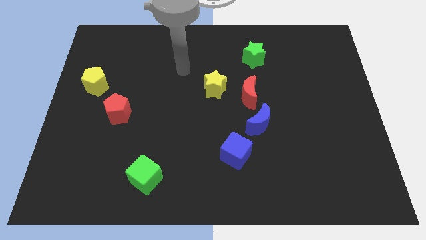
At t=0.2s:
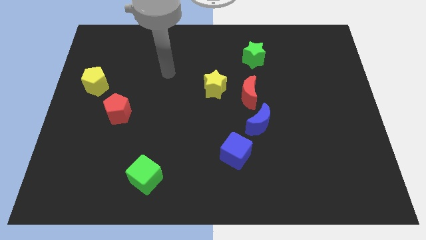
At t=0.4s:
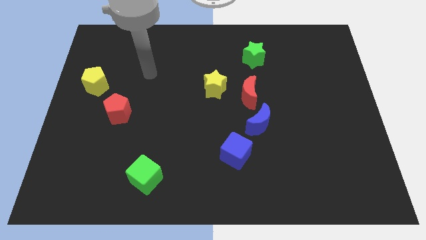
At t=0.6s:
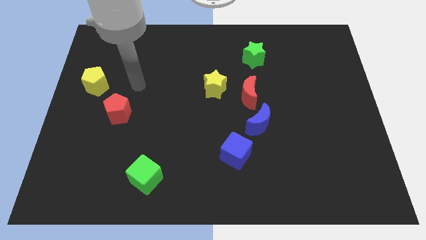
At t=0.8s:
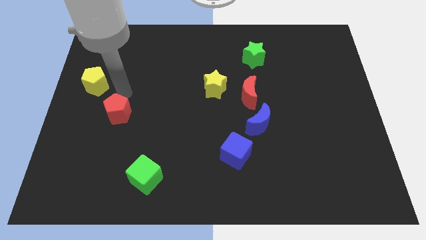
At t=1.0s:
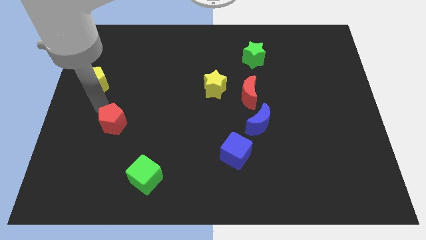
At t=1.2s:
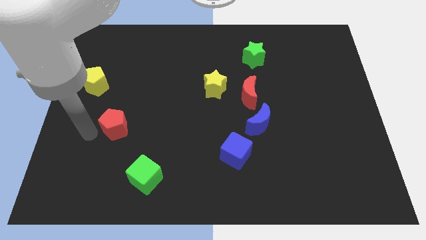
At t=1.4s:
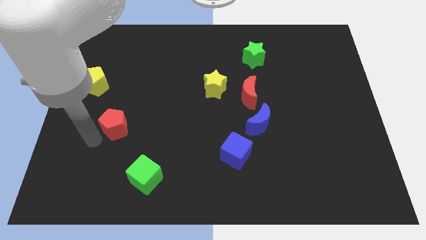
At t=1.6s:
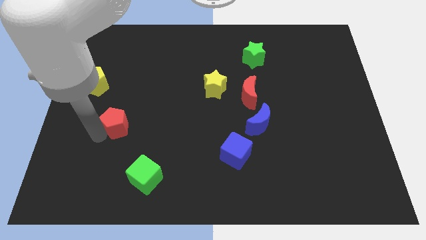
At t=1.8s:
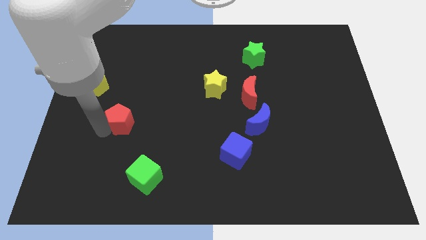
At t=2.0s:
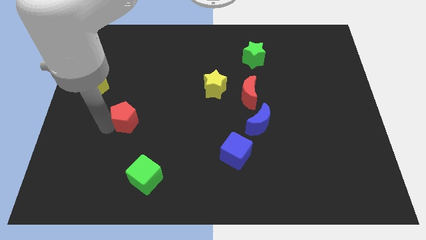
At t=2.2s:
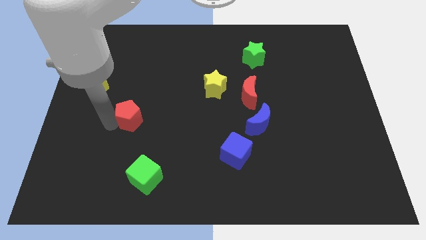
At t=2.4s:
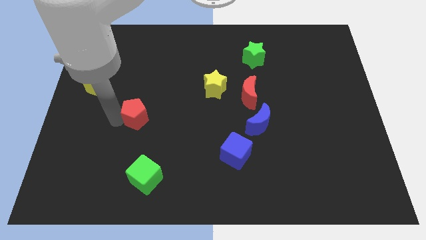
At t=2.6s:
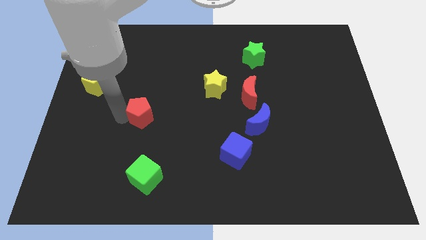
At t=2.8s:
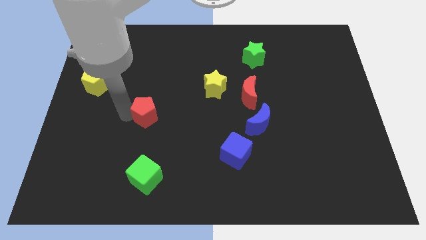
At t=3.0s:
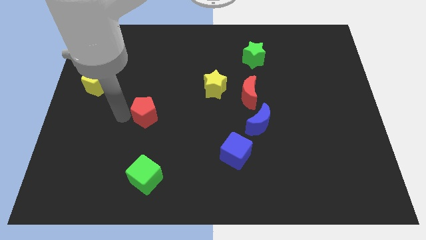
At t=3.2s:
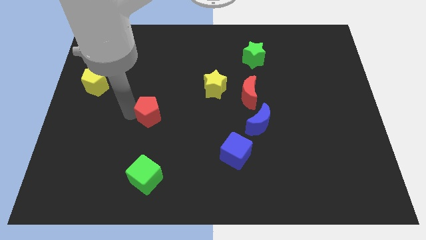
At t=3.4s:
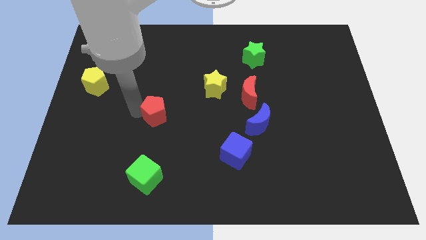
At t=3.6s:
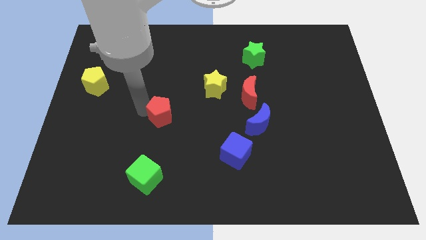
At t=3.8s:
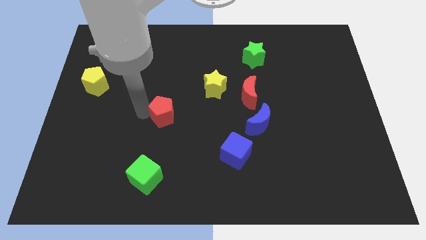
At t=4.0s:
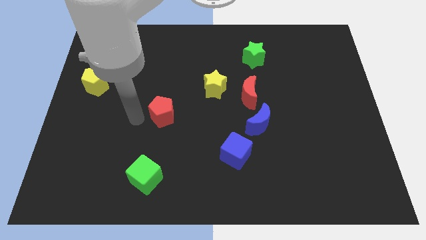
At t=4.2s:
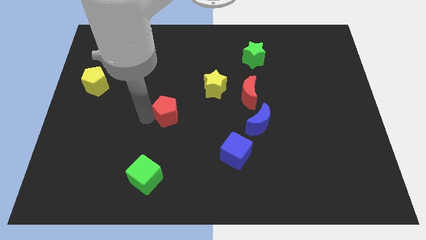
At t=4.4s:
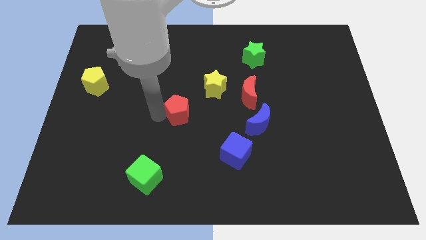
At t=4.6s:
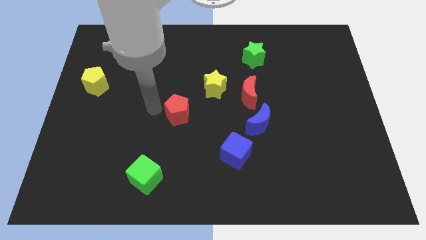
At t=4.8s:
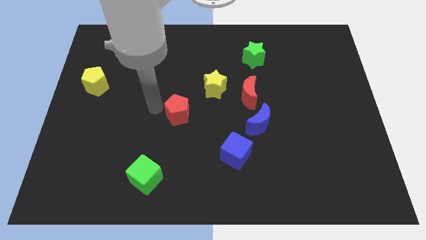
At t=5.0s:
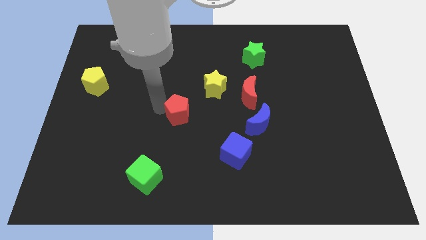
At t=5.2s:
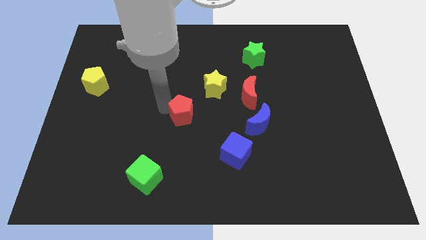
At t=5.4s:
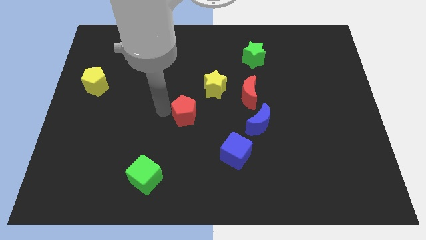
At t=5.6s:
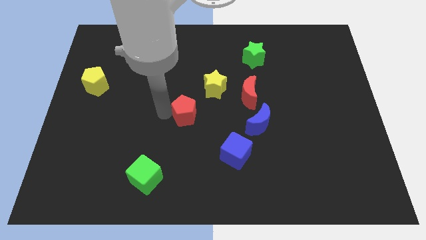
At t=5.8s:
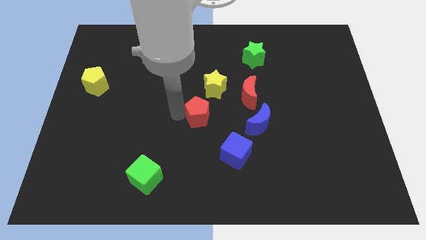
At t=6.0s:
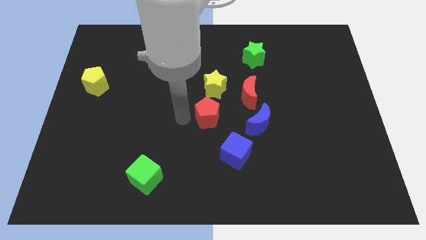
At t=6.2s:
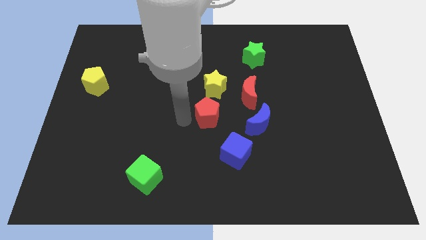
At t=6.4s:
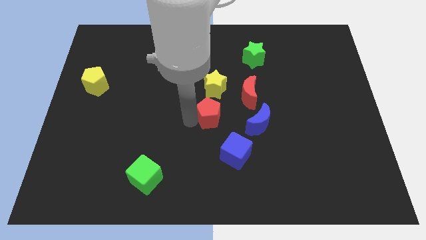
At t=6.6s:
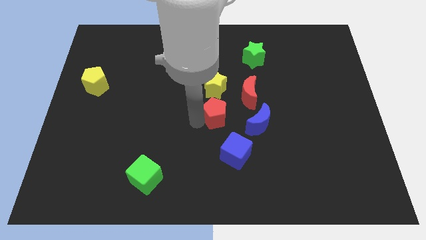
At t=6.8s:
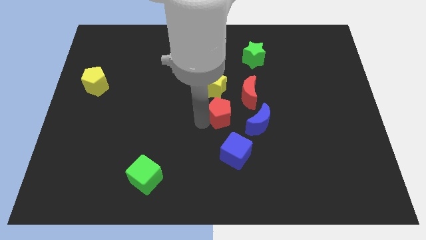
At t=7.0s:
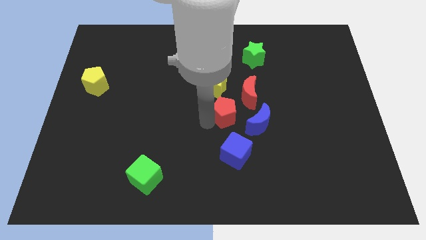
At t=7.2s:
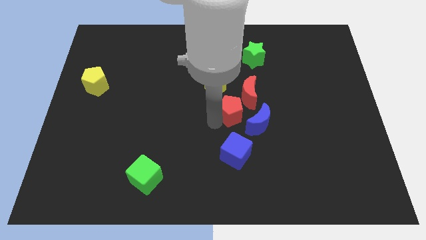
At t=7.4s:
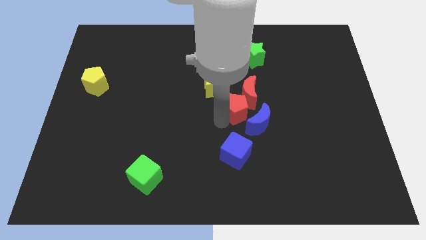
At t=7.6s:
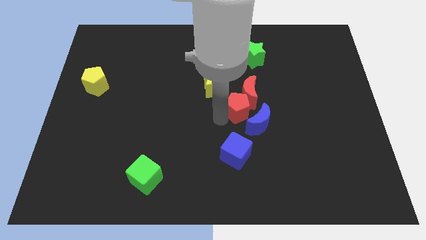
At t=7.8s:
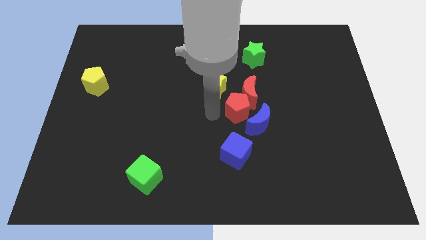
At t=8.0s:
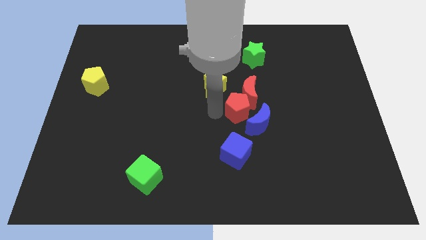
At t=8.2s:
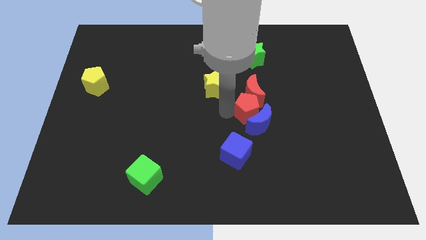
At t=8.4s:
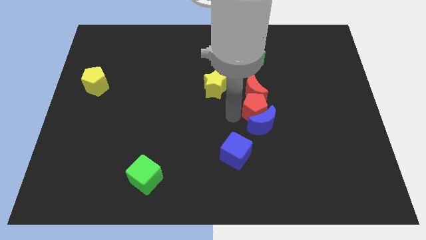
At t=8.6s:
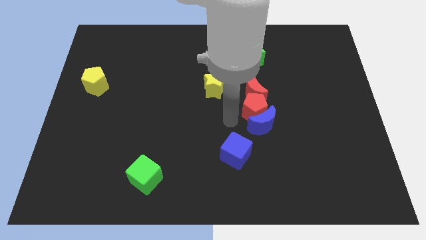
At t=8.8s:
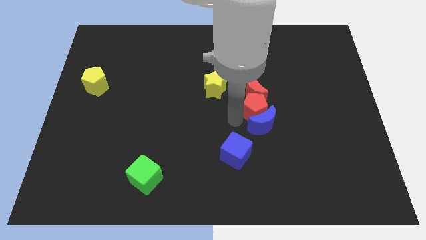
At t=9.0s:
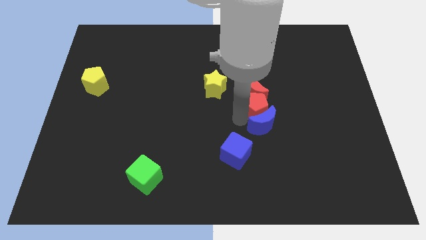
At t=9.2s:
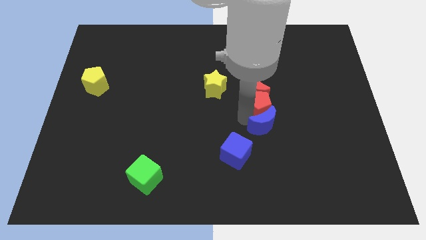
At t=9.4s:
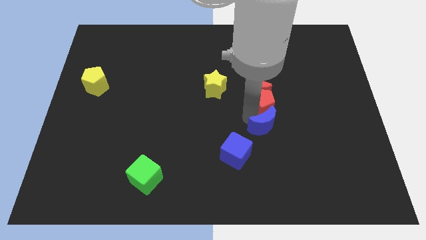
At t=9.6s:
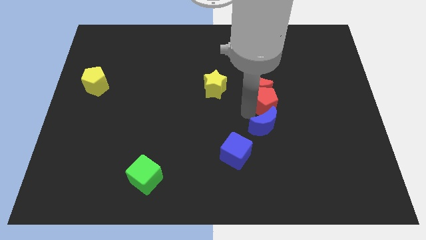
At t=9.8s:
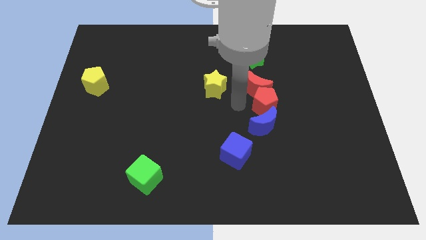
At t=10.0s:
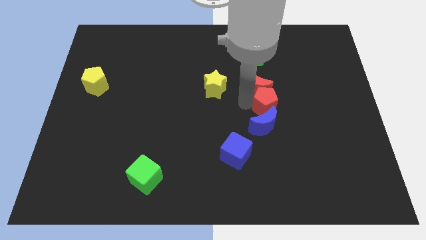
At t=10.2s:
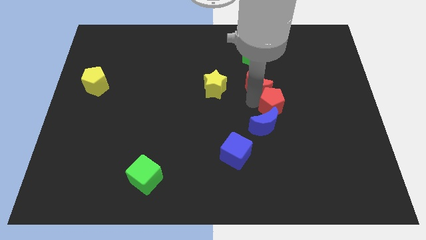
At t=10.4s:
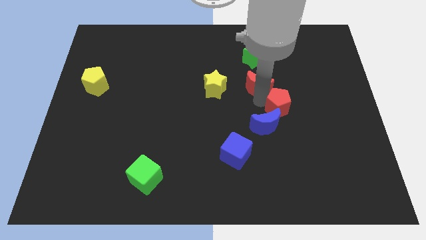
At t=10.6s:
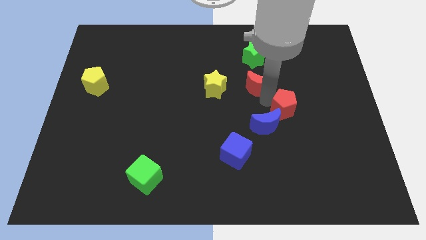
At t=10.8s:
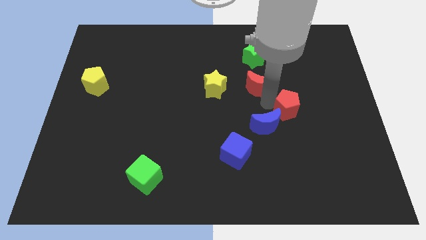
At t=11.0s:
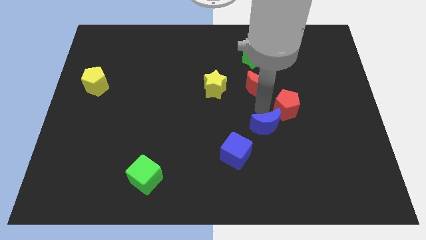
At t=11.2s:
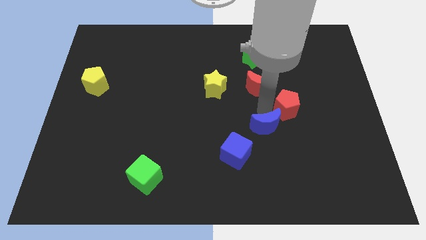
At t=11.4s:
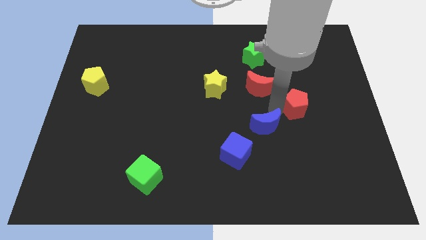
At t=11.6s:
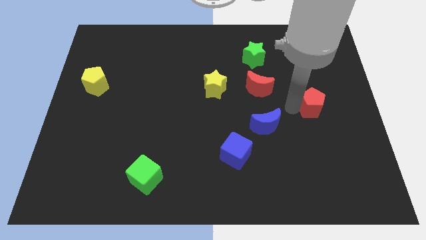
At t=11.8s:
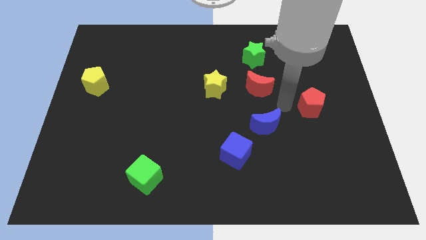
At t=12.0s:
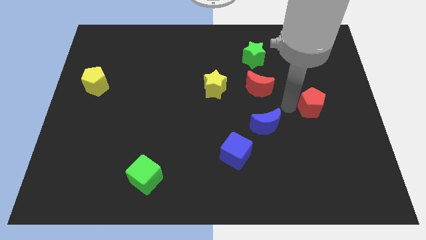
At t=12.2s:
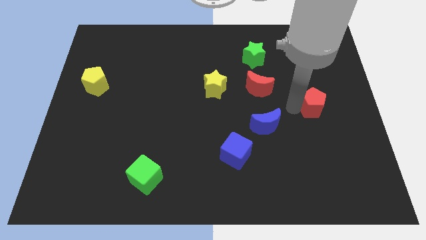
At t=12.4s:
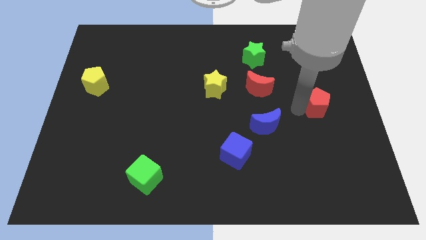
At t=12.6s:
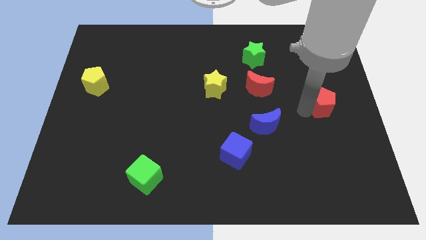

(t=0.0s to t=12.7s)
slide the red pentagon to the right side of the board

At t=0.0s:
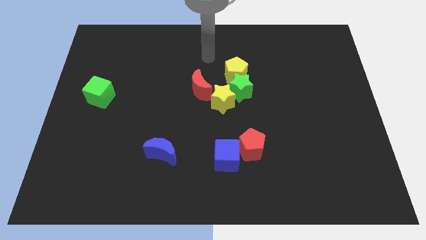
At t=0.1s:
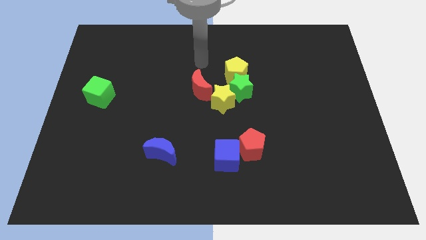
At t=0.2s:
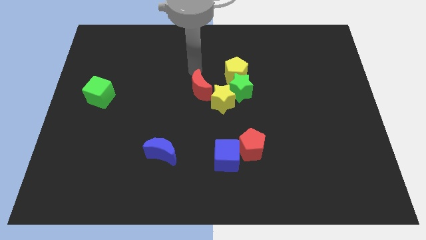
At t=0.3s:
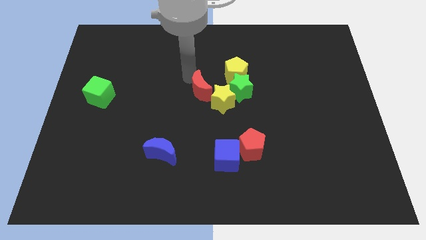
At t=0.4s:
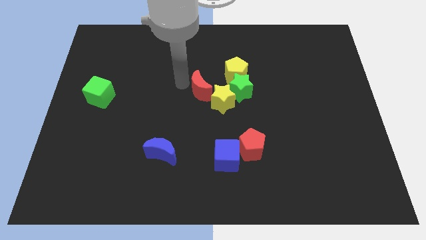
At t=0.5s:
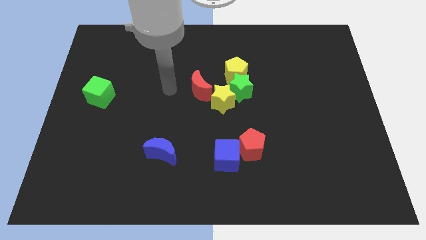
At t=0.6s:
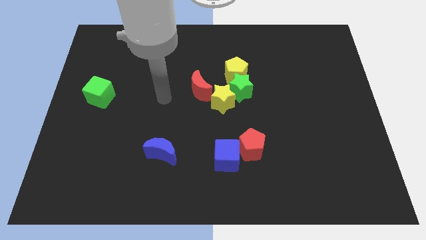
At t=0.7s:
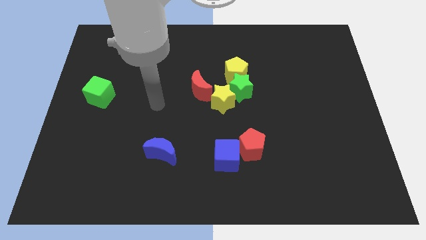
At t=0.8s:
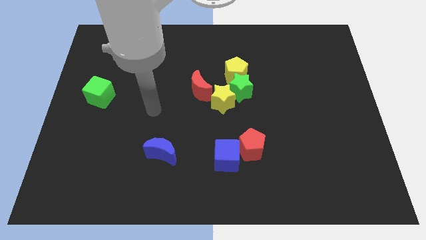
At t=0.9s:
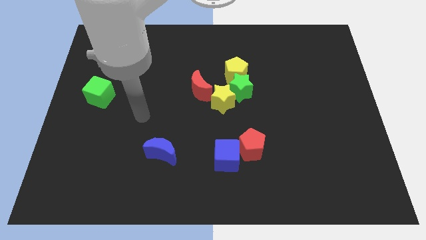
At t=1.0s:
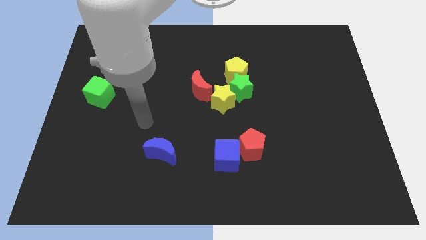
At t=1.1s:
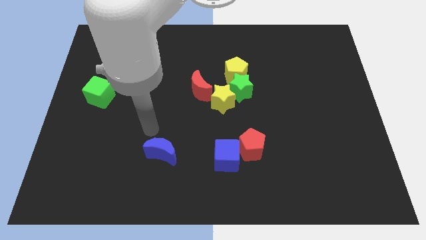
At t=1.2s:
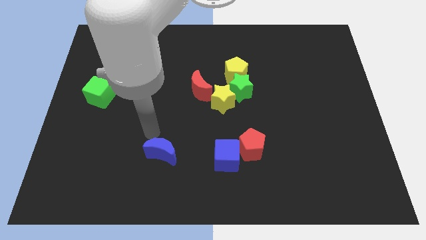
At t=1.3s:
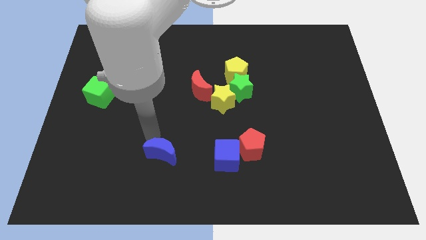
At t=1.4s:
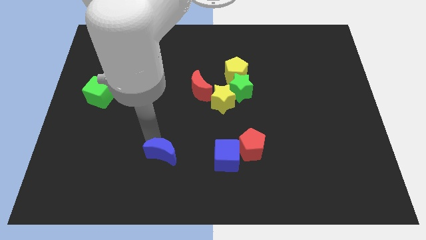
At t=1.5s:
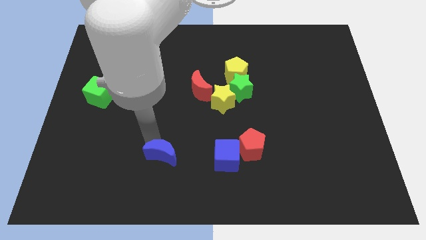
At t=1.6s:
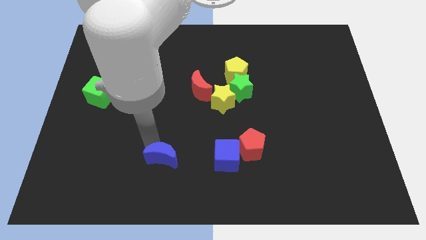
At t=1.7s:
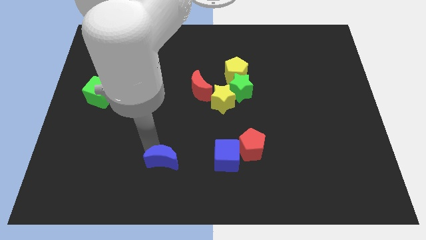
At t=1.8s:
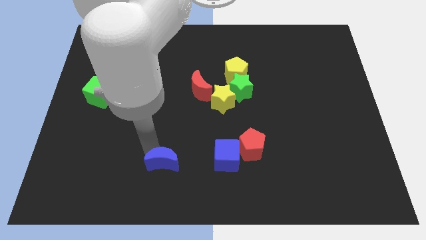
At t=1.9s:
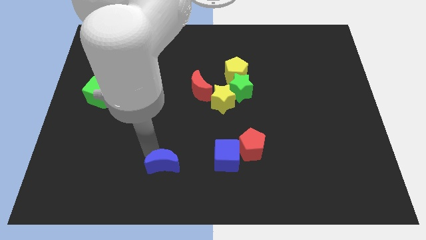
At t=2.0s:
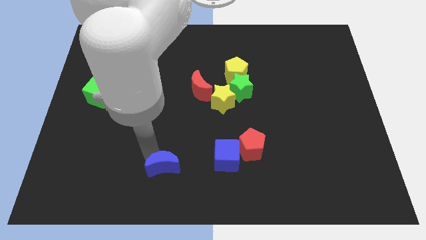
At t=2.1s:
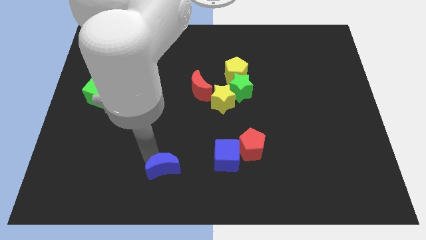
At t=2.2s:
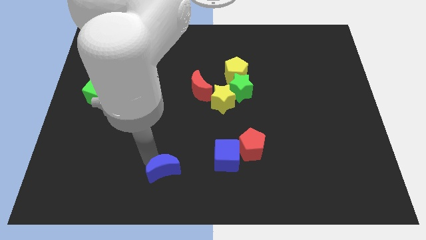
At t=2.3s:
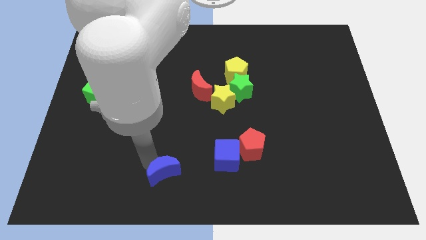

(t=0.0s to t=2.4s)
slide the blue moon to the bottom
